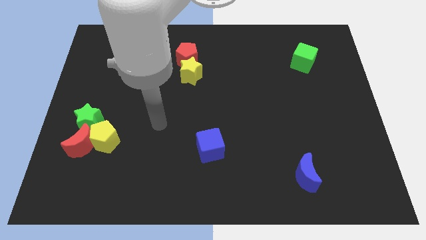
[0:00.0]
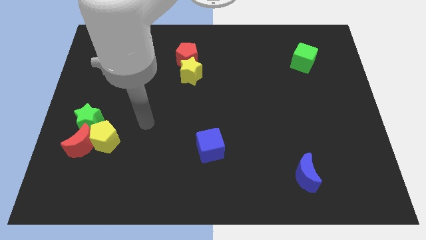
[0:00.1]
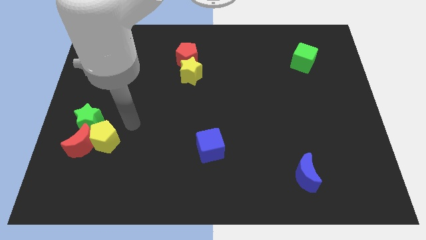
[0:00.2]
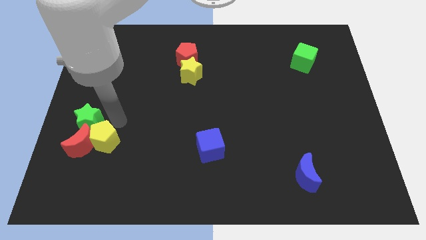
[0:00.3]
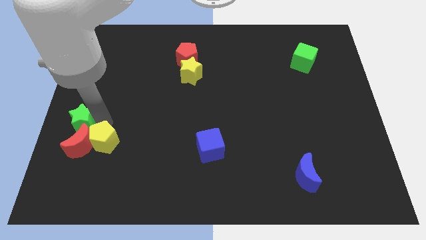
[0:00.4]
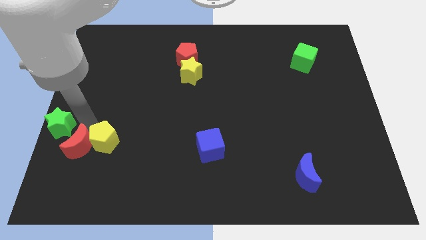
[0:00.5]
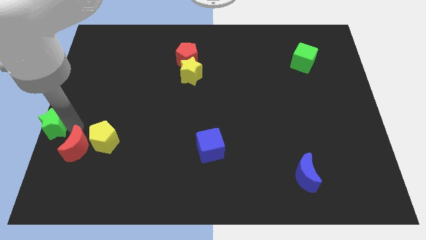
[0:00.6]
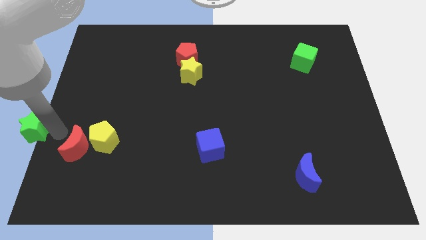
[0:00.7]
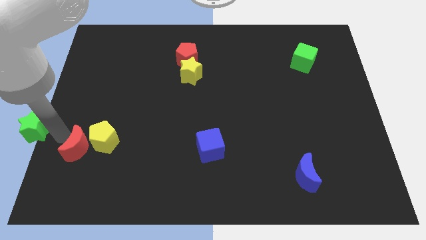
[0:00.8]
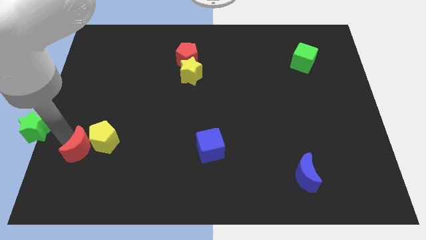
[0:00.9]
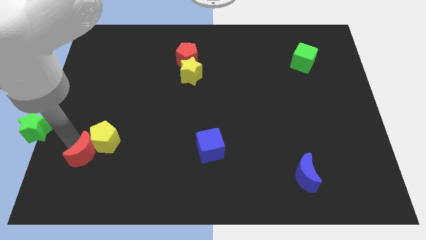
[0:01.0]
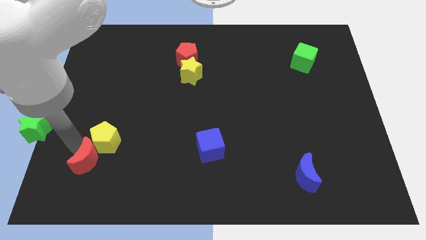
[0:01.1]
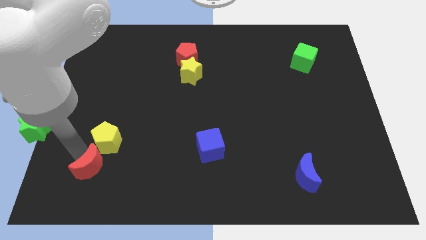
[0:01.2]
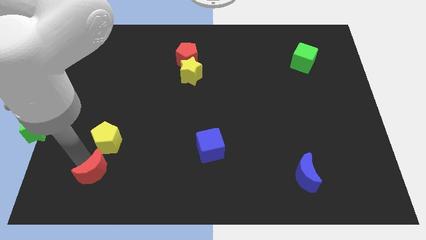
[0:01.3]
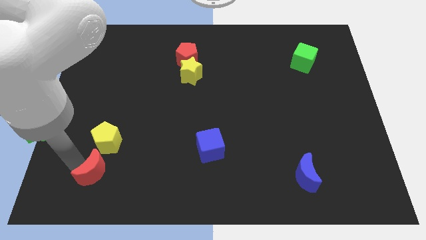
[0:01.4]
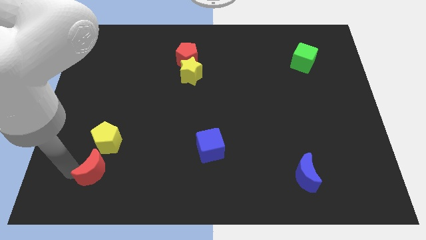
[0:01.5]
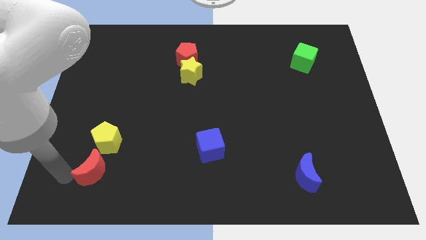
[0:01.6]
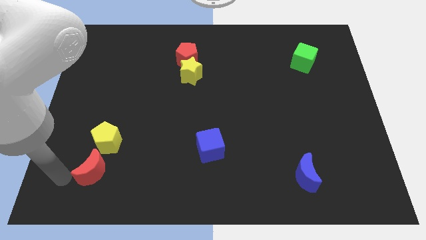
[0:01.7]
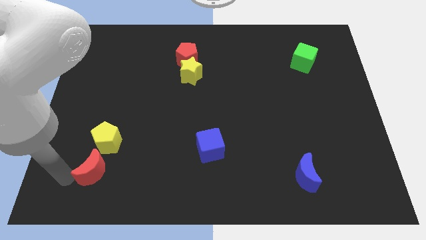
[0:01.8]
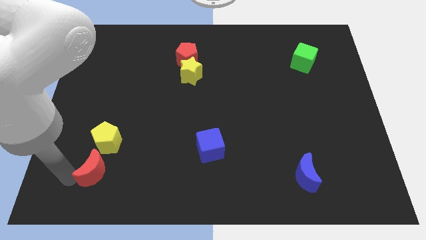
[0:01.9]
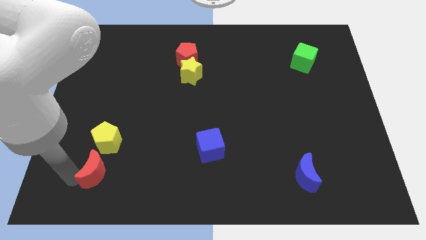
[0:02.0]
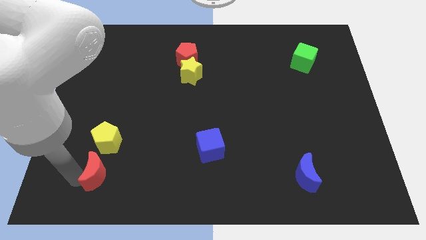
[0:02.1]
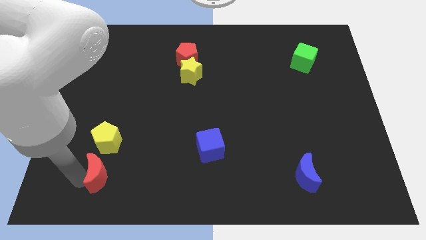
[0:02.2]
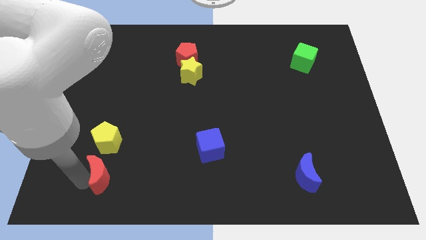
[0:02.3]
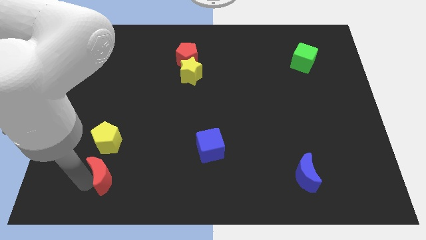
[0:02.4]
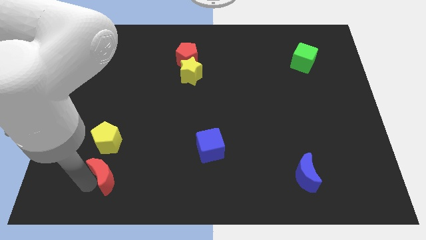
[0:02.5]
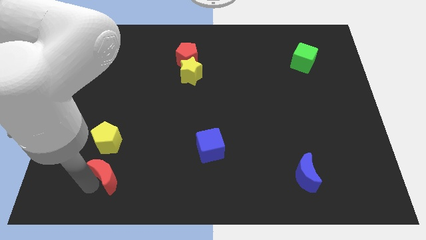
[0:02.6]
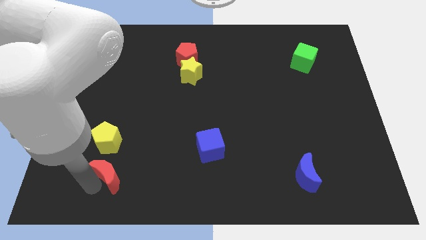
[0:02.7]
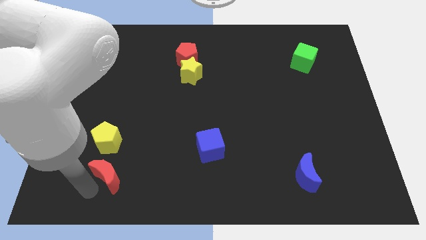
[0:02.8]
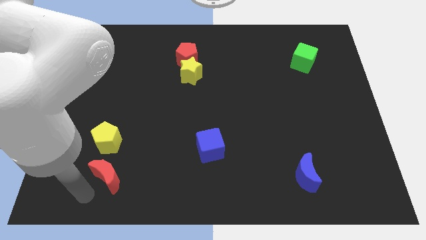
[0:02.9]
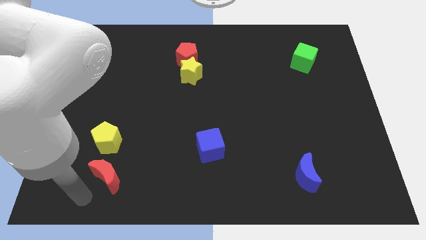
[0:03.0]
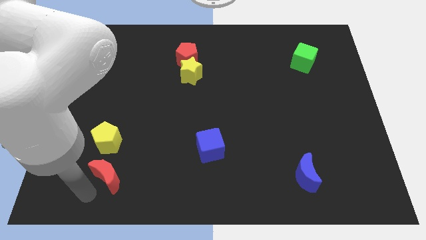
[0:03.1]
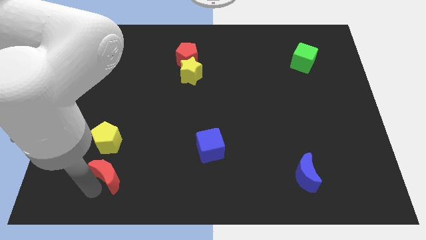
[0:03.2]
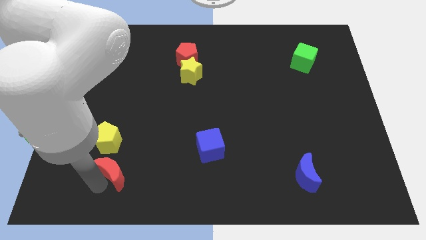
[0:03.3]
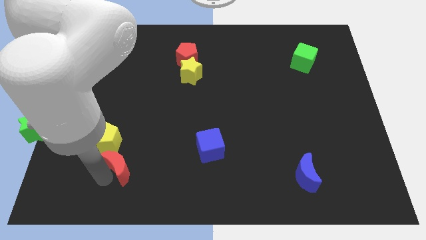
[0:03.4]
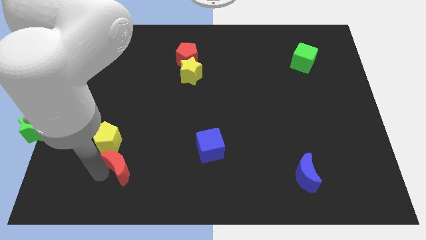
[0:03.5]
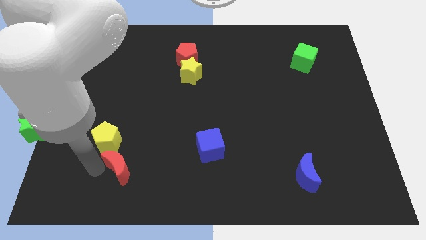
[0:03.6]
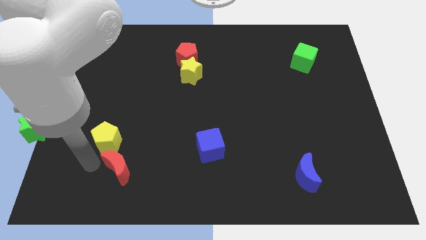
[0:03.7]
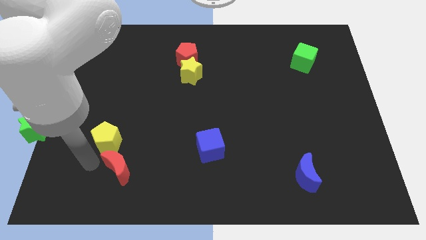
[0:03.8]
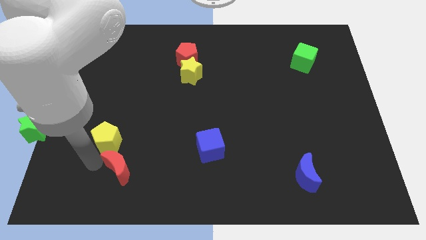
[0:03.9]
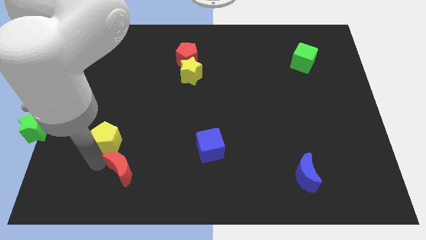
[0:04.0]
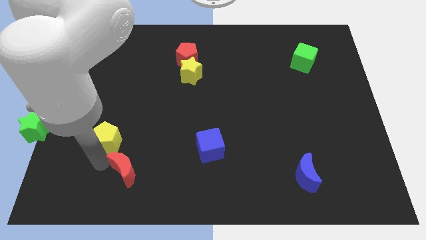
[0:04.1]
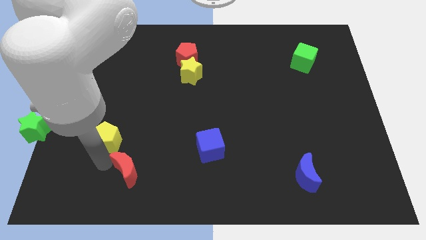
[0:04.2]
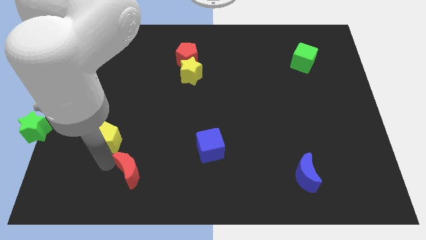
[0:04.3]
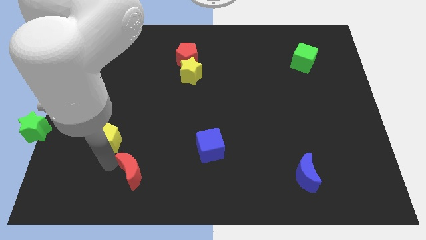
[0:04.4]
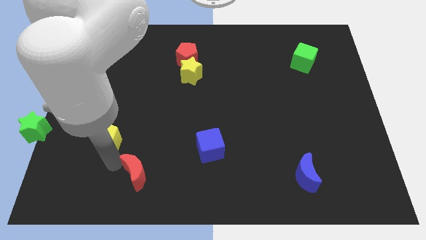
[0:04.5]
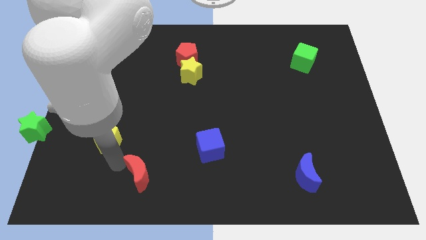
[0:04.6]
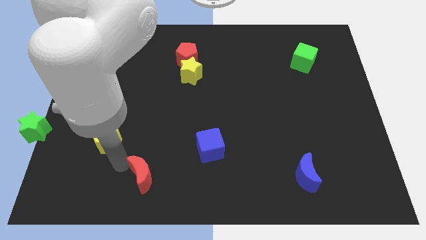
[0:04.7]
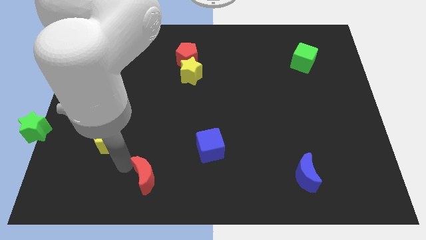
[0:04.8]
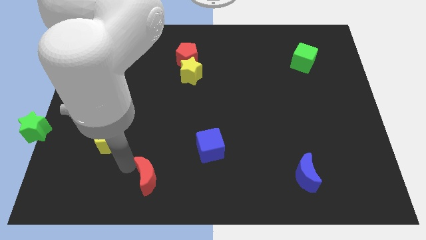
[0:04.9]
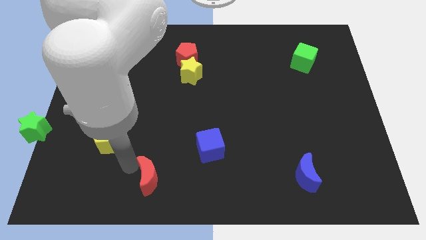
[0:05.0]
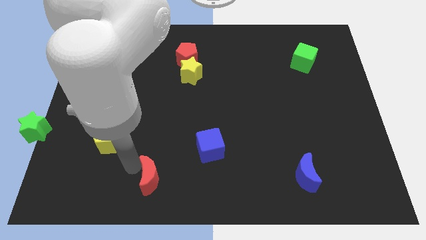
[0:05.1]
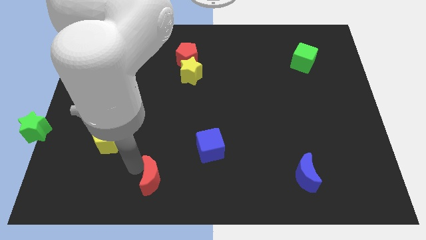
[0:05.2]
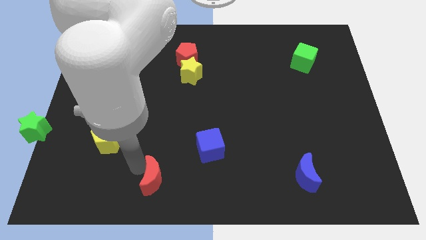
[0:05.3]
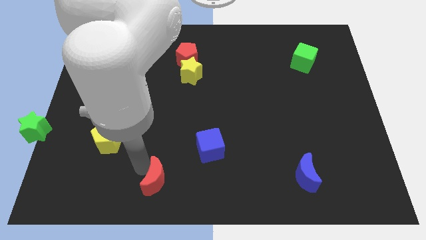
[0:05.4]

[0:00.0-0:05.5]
move the red moon to the bottom side

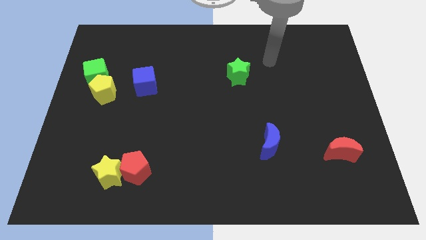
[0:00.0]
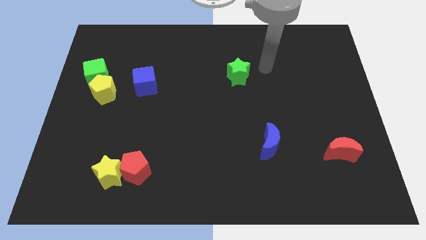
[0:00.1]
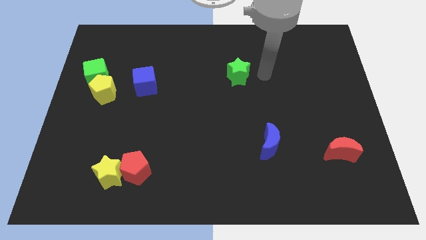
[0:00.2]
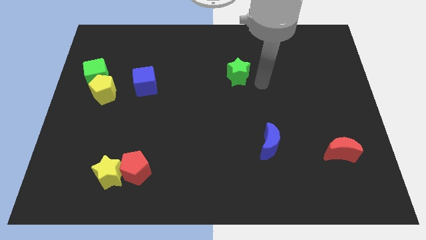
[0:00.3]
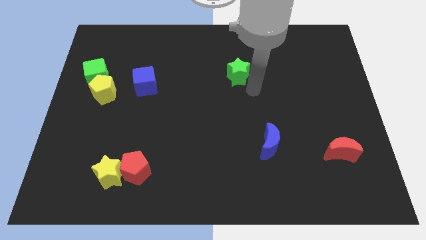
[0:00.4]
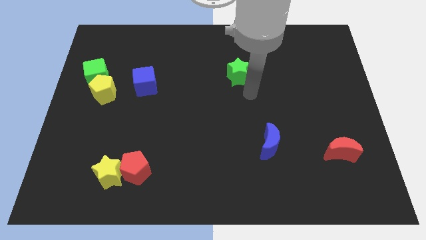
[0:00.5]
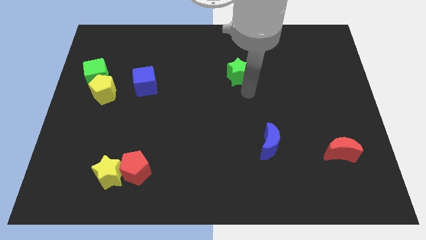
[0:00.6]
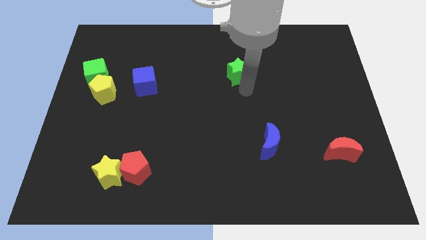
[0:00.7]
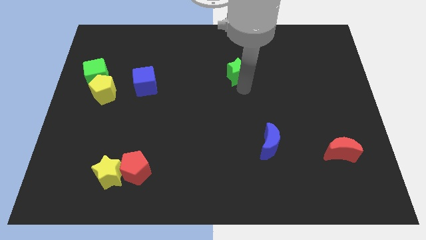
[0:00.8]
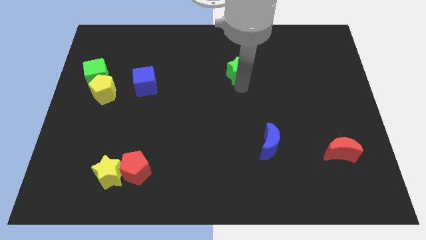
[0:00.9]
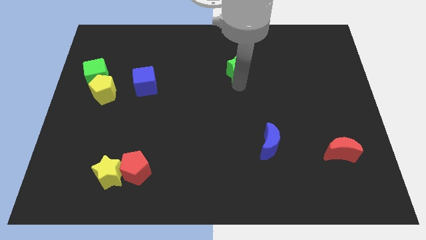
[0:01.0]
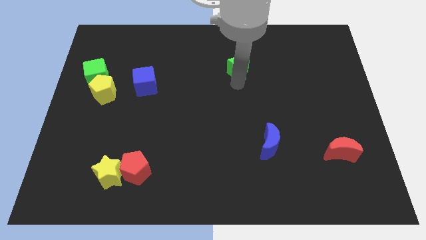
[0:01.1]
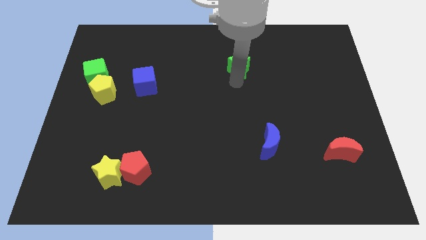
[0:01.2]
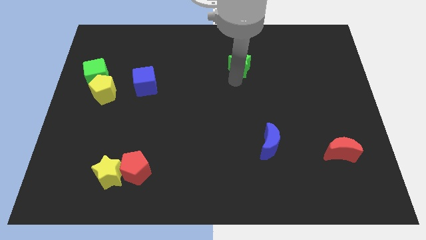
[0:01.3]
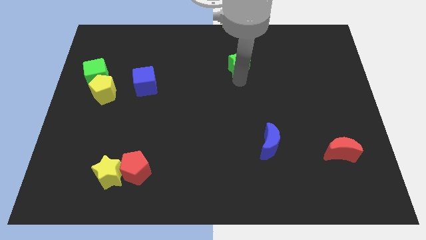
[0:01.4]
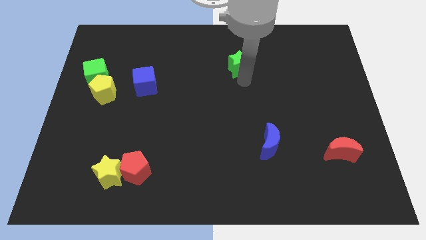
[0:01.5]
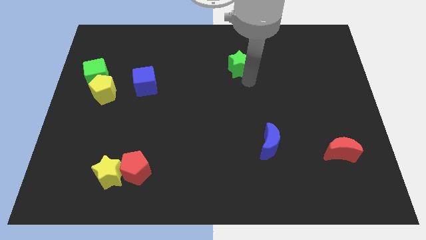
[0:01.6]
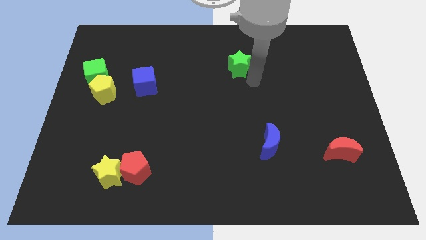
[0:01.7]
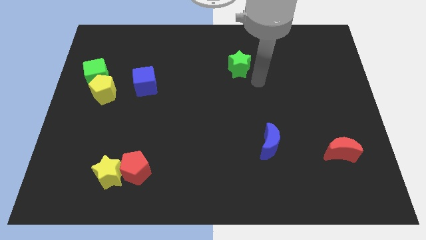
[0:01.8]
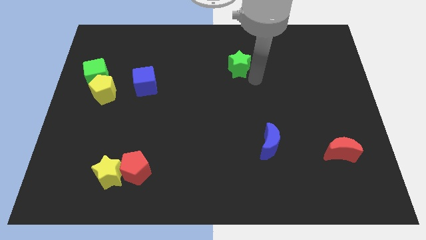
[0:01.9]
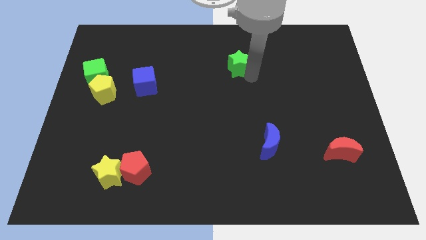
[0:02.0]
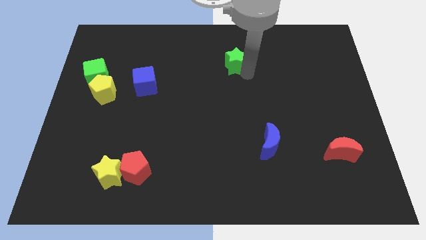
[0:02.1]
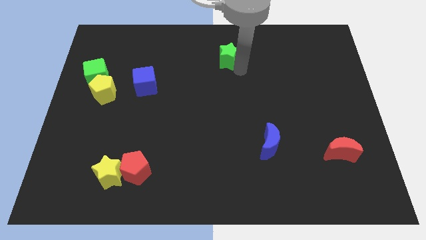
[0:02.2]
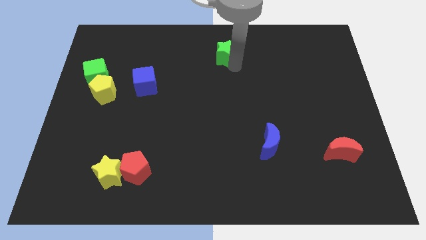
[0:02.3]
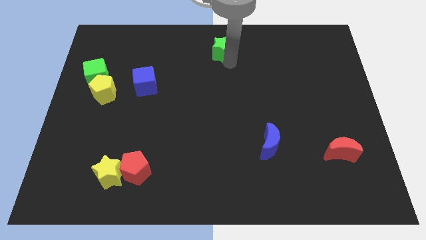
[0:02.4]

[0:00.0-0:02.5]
push the green star to the top side
